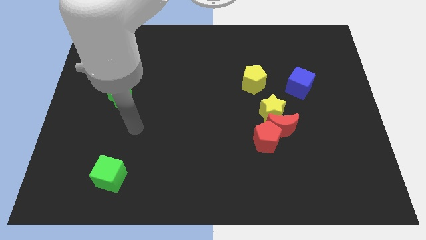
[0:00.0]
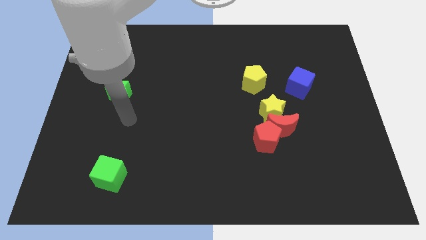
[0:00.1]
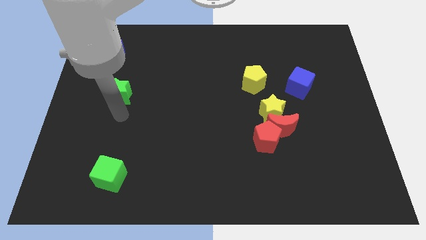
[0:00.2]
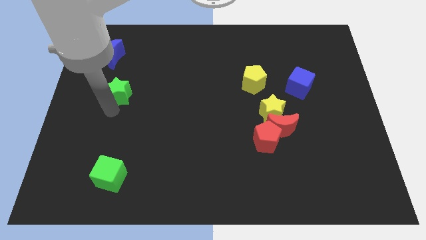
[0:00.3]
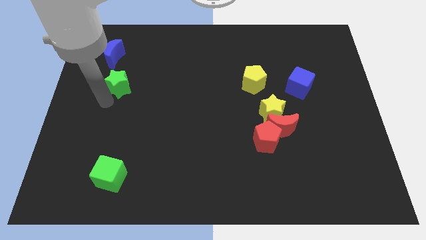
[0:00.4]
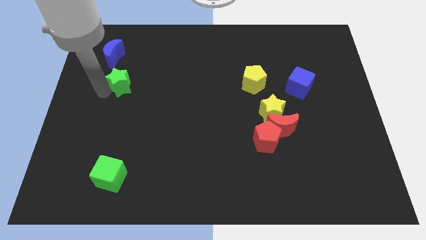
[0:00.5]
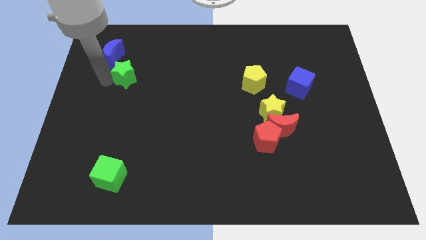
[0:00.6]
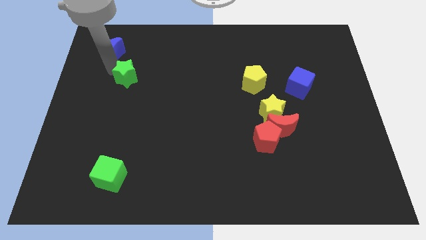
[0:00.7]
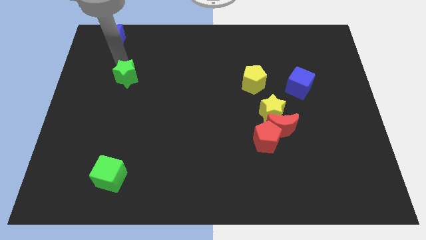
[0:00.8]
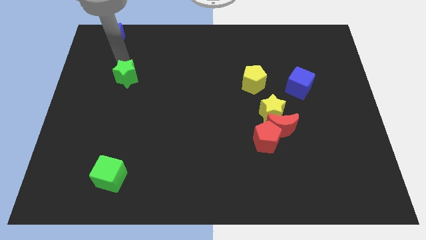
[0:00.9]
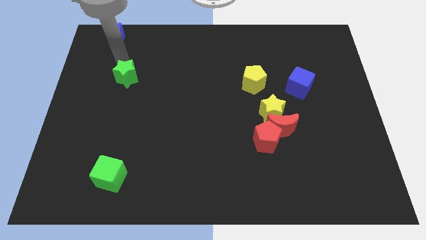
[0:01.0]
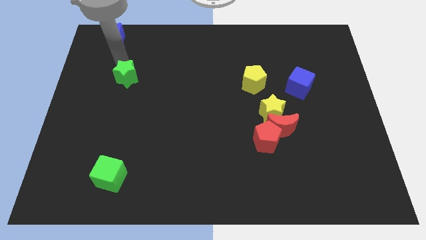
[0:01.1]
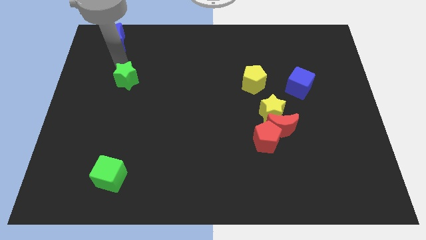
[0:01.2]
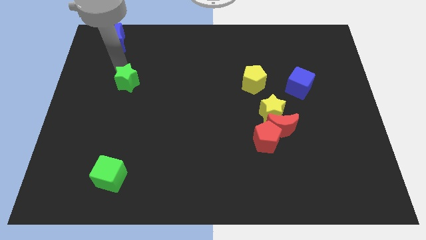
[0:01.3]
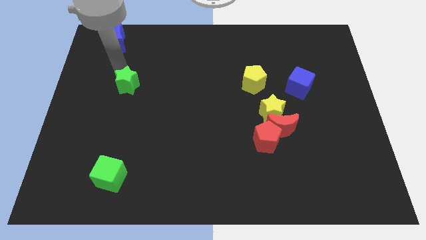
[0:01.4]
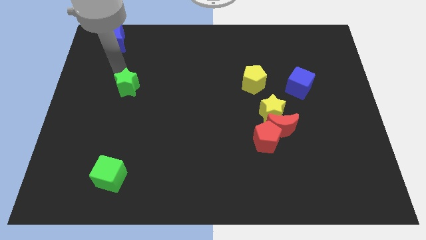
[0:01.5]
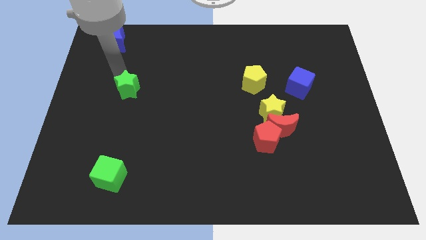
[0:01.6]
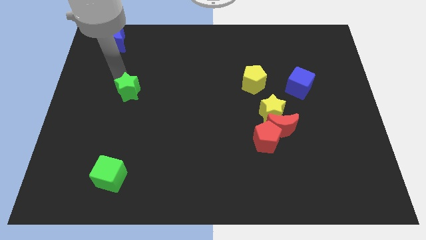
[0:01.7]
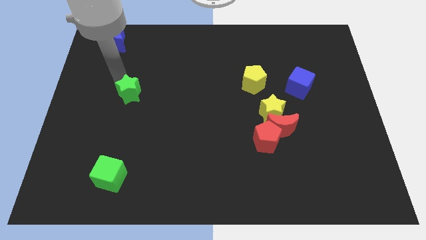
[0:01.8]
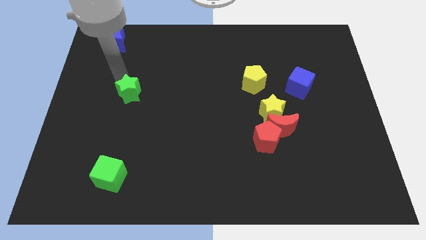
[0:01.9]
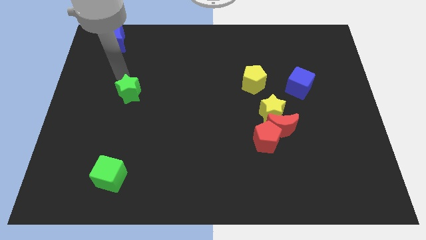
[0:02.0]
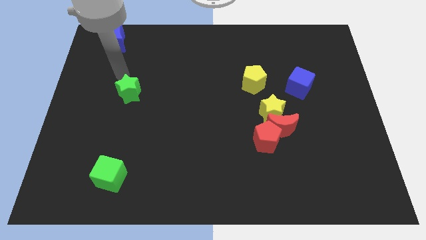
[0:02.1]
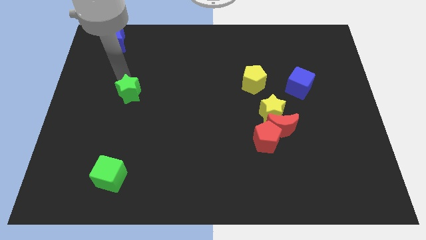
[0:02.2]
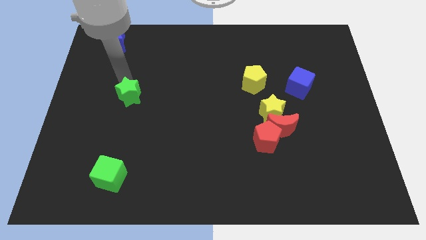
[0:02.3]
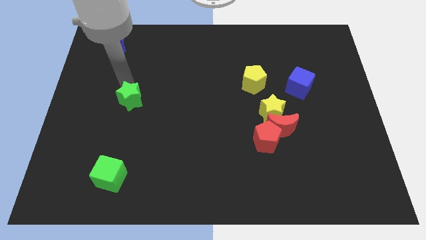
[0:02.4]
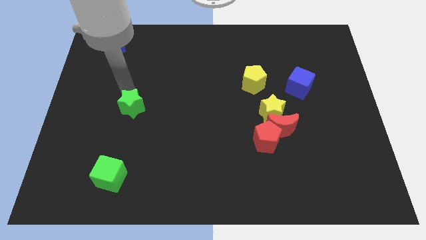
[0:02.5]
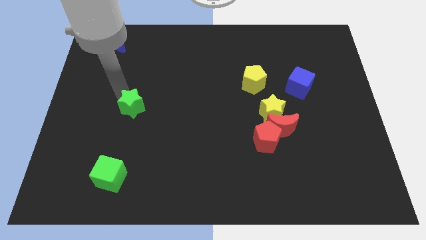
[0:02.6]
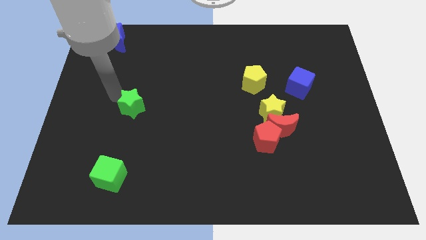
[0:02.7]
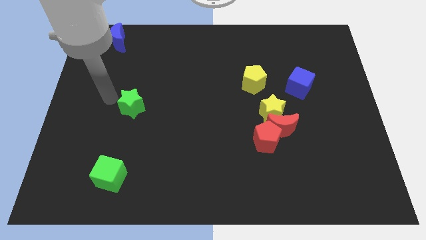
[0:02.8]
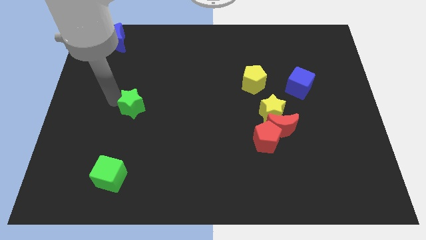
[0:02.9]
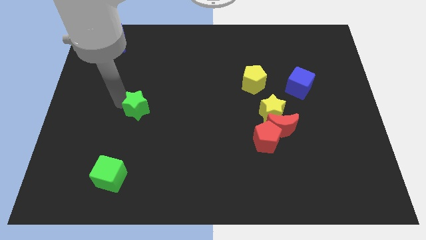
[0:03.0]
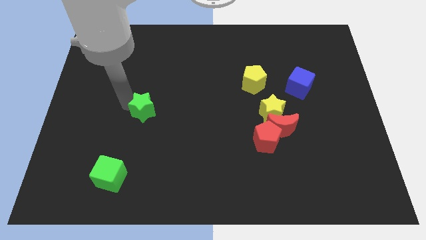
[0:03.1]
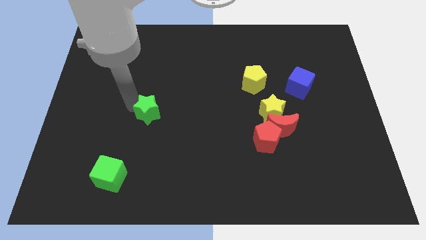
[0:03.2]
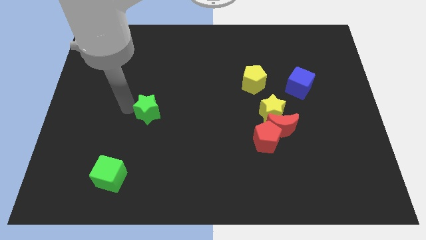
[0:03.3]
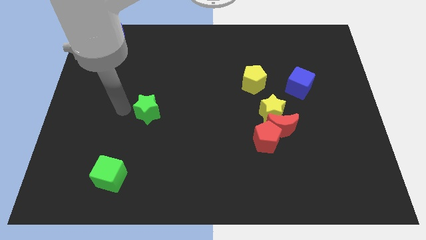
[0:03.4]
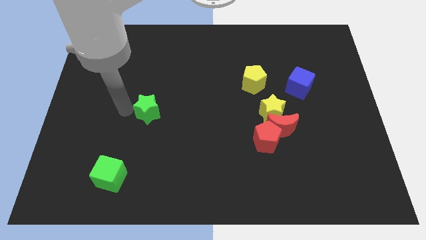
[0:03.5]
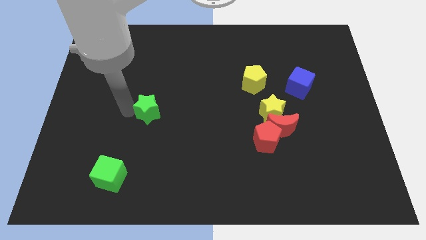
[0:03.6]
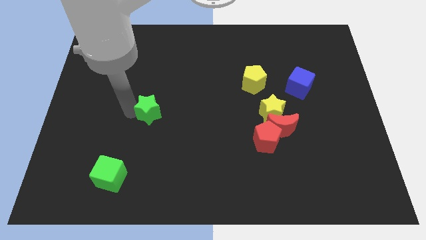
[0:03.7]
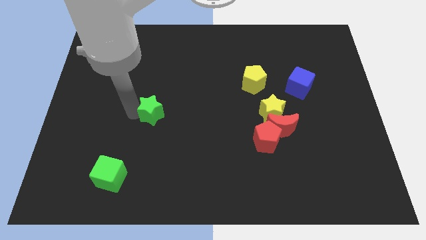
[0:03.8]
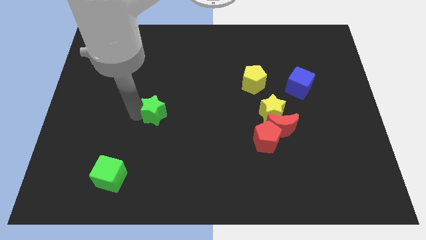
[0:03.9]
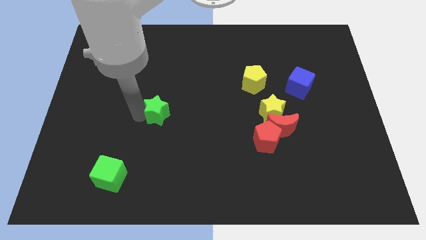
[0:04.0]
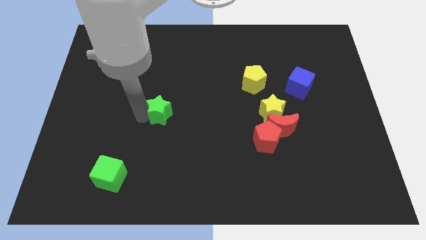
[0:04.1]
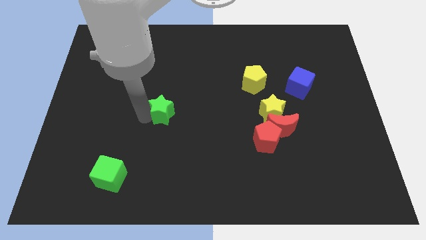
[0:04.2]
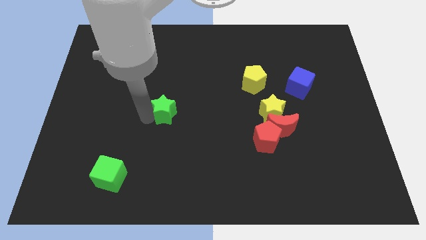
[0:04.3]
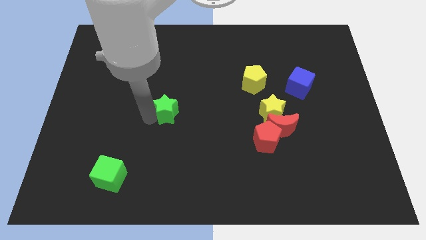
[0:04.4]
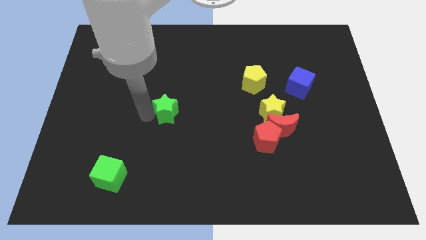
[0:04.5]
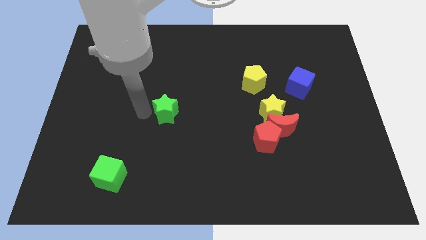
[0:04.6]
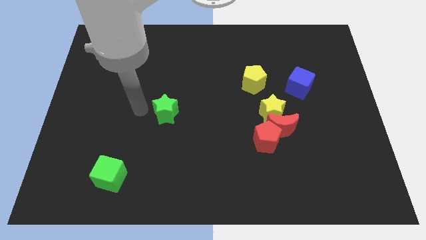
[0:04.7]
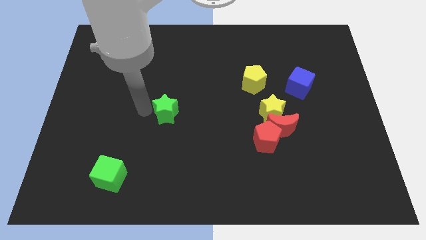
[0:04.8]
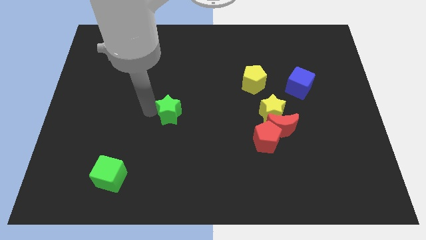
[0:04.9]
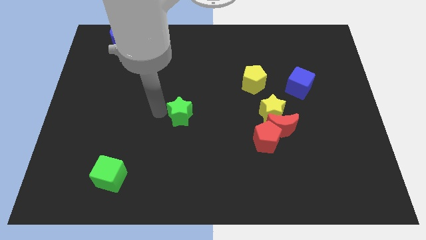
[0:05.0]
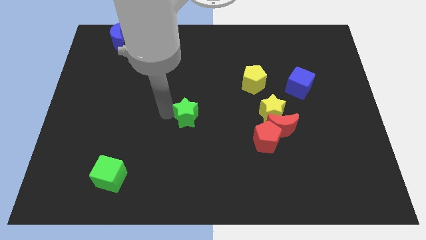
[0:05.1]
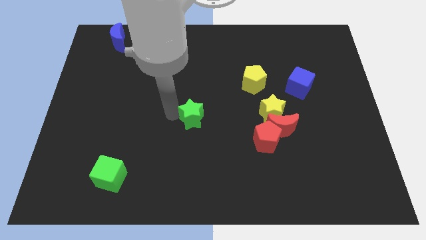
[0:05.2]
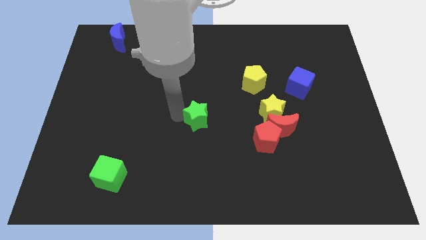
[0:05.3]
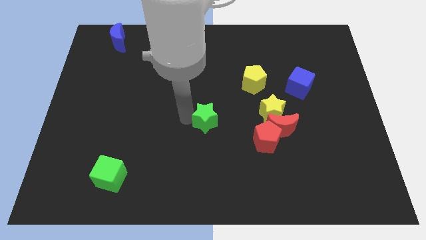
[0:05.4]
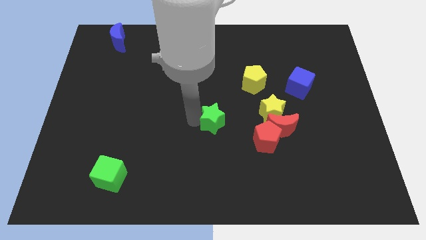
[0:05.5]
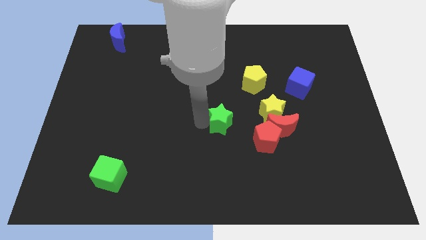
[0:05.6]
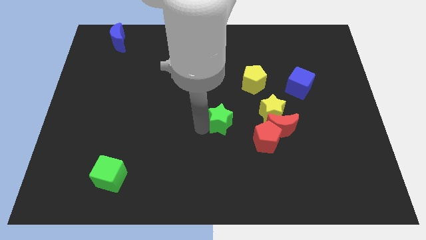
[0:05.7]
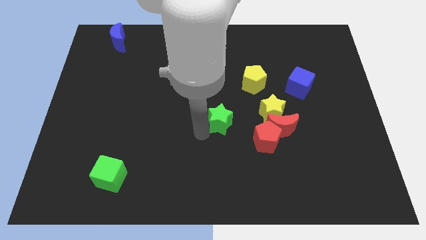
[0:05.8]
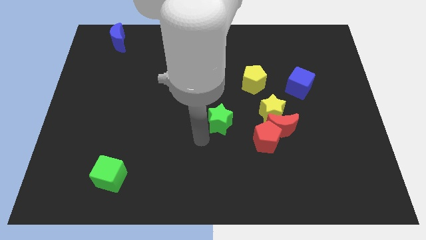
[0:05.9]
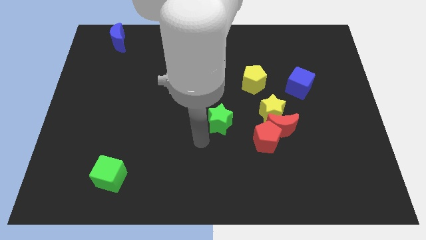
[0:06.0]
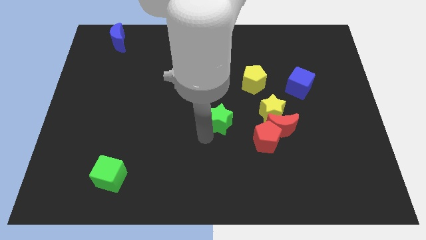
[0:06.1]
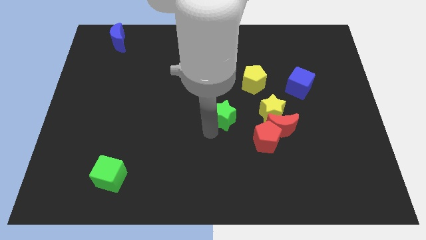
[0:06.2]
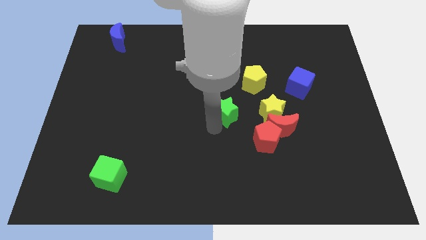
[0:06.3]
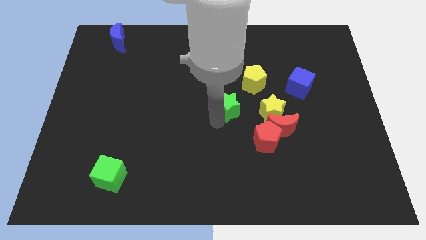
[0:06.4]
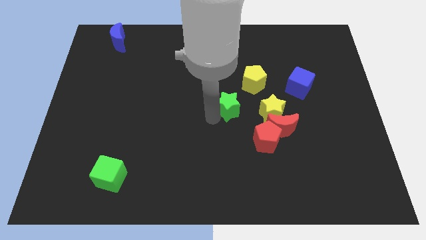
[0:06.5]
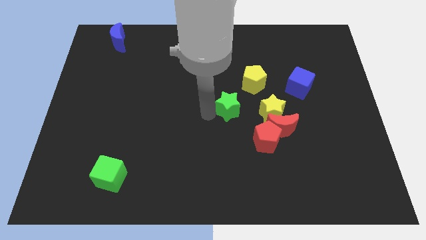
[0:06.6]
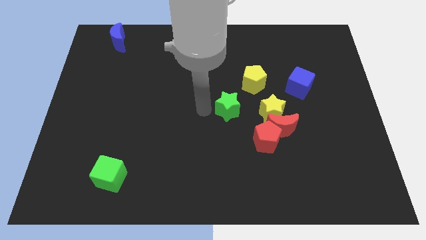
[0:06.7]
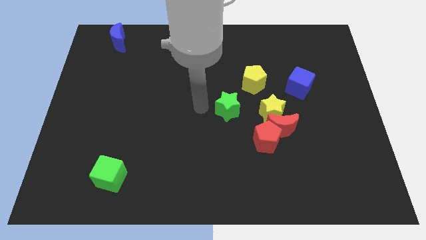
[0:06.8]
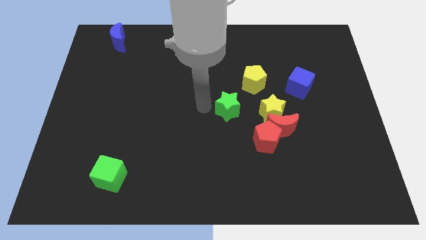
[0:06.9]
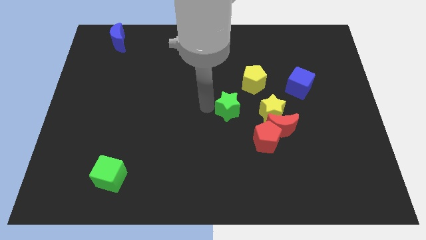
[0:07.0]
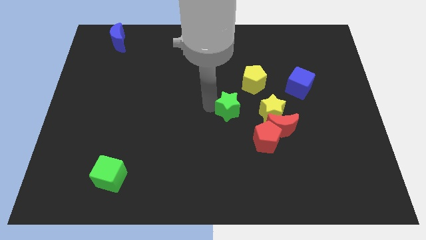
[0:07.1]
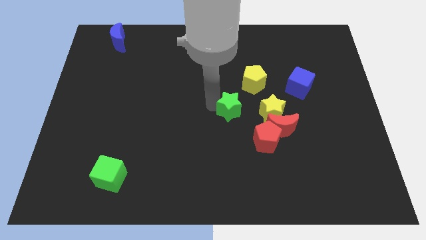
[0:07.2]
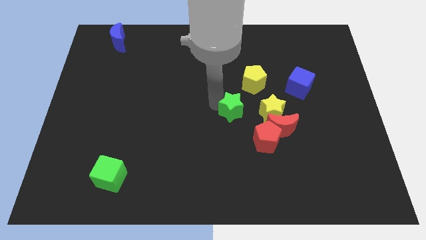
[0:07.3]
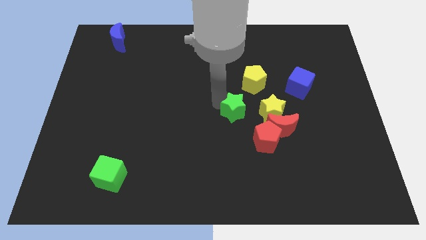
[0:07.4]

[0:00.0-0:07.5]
put the green star to the top left side of the red moon

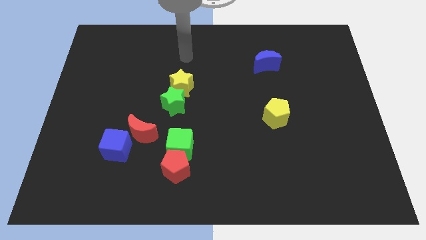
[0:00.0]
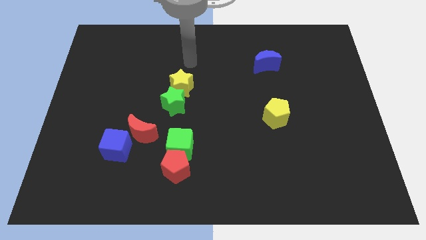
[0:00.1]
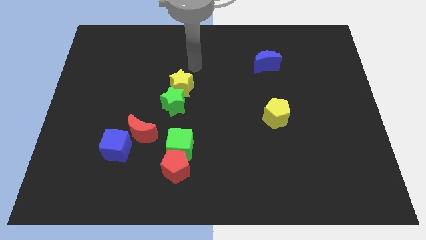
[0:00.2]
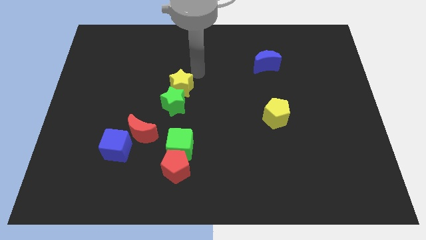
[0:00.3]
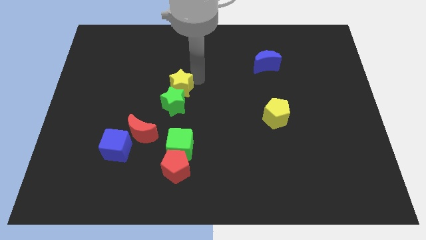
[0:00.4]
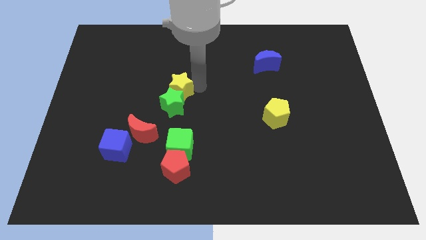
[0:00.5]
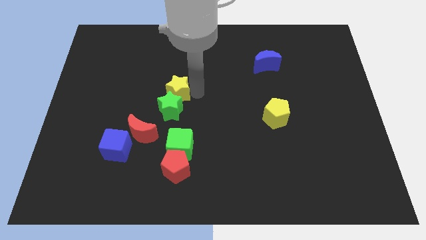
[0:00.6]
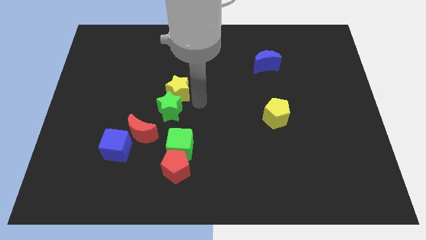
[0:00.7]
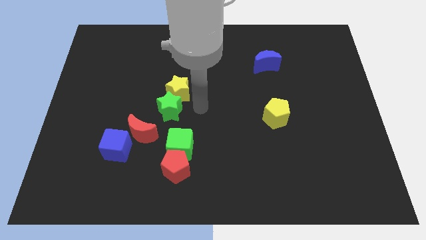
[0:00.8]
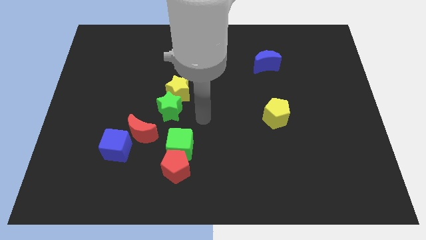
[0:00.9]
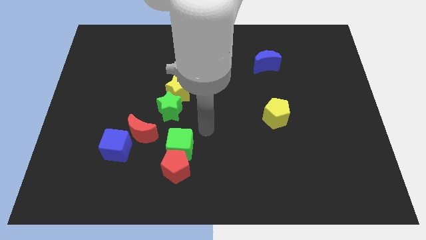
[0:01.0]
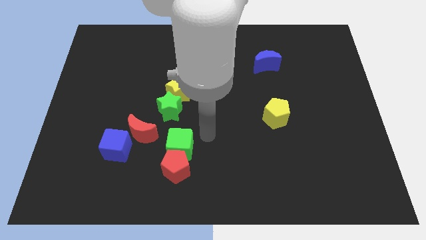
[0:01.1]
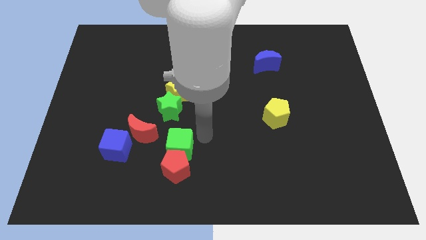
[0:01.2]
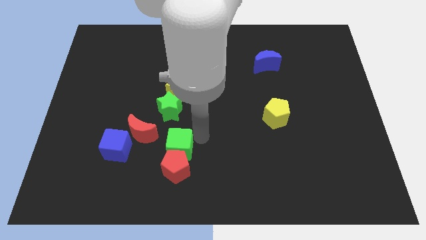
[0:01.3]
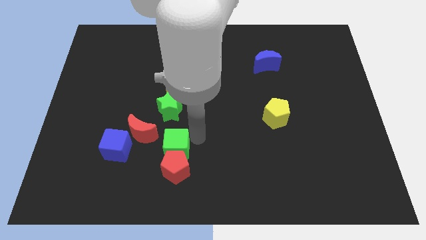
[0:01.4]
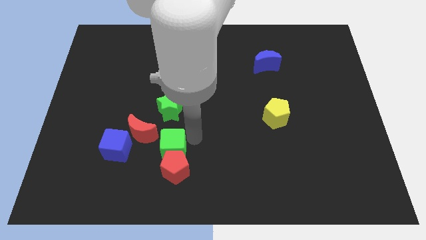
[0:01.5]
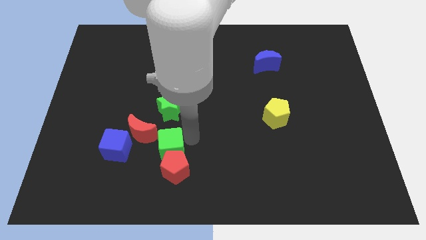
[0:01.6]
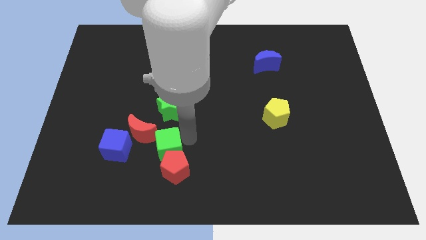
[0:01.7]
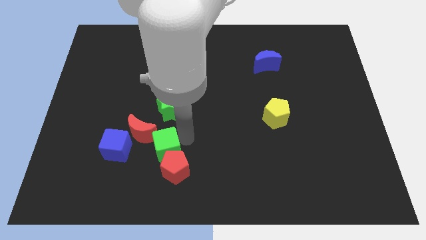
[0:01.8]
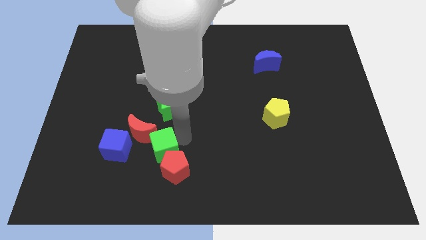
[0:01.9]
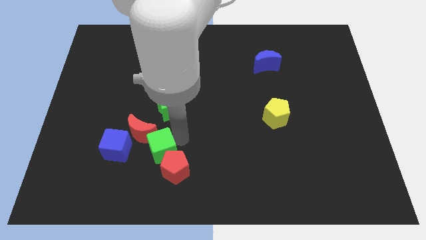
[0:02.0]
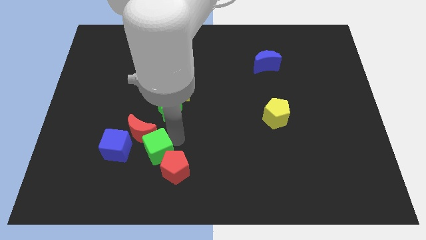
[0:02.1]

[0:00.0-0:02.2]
push the green cube just left of the red pentagon
